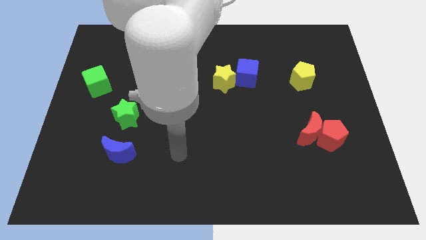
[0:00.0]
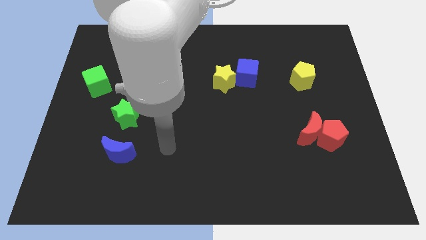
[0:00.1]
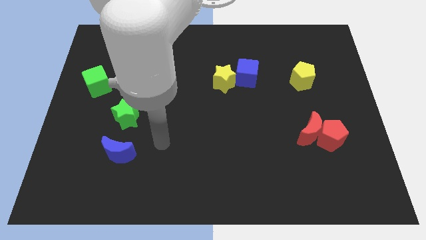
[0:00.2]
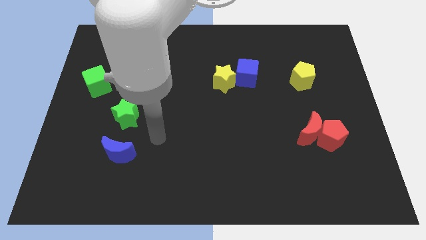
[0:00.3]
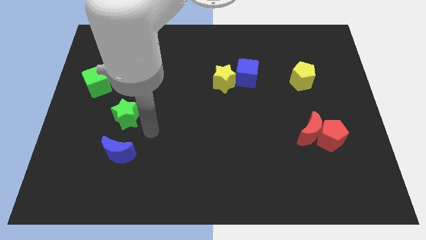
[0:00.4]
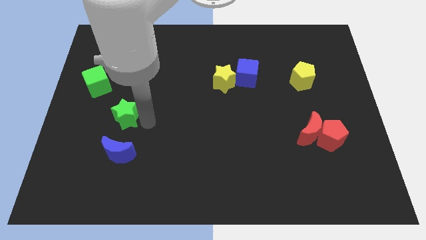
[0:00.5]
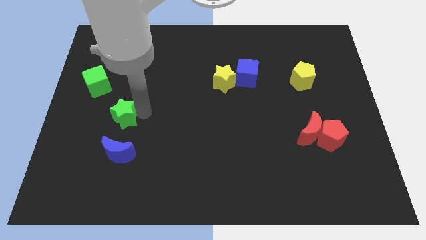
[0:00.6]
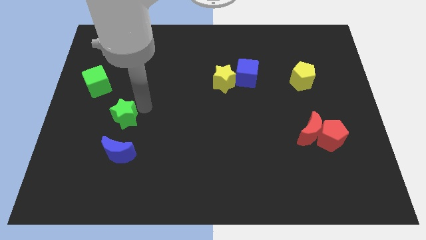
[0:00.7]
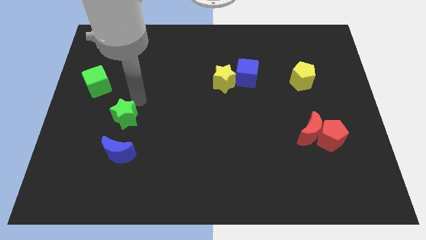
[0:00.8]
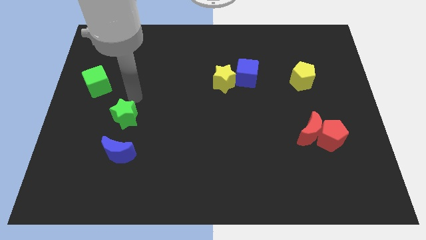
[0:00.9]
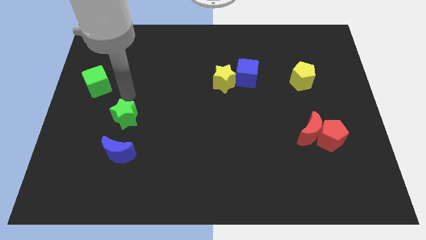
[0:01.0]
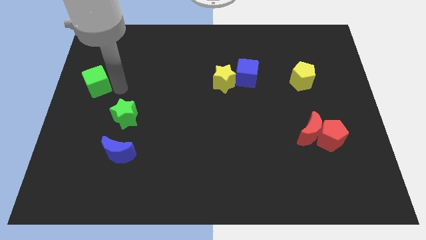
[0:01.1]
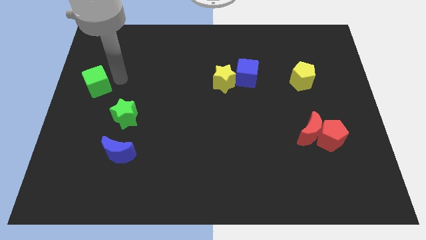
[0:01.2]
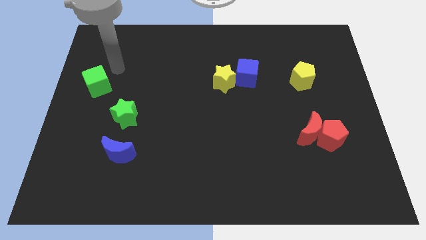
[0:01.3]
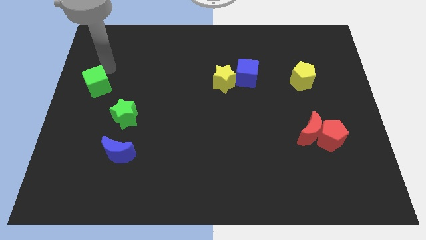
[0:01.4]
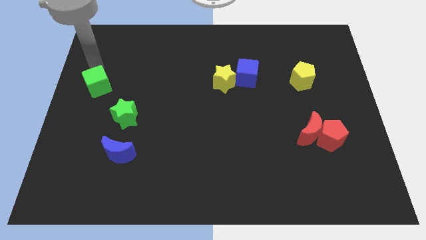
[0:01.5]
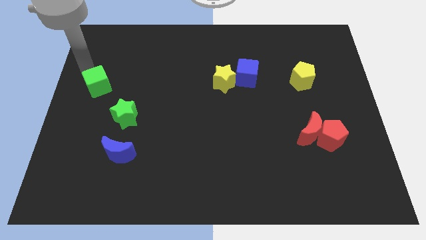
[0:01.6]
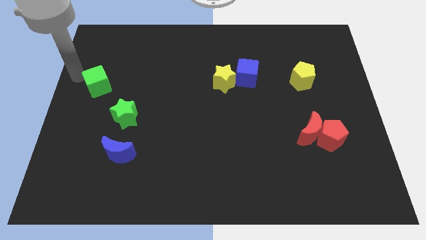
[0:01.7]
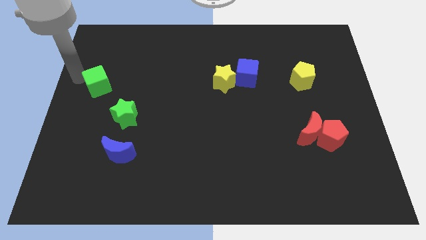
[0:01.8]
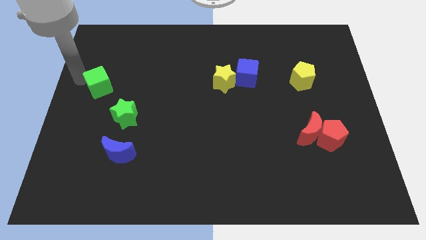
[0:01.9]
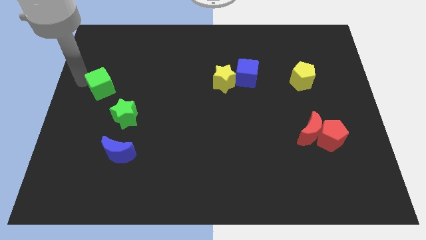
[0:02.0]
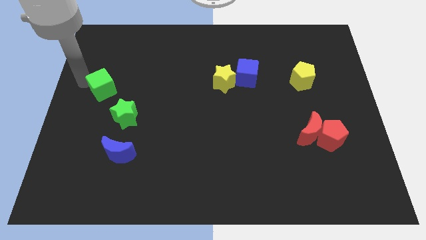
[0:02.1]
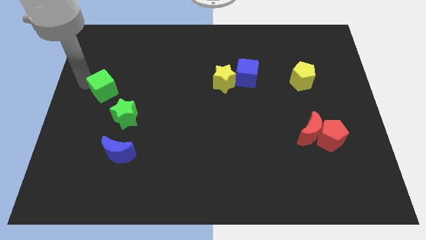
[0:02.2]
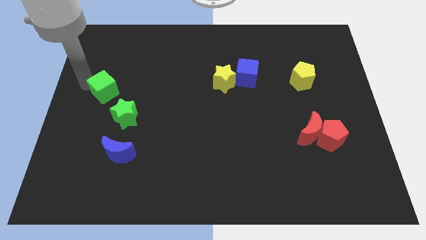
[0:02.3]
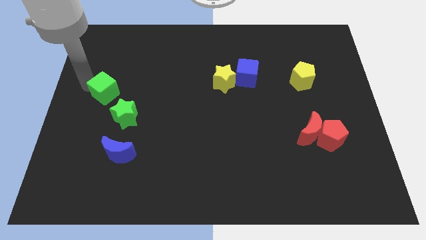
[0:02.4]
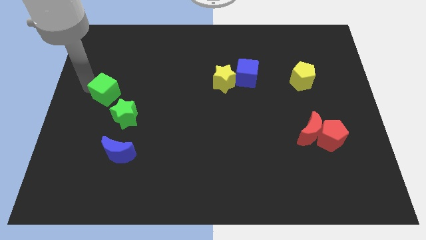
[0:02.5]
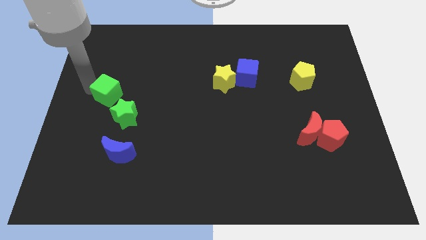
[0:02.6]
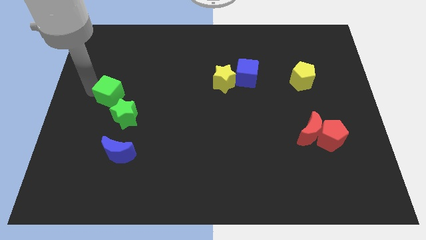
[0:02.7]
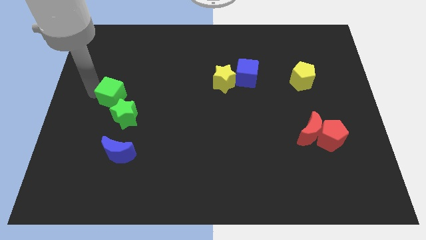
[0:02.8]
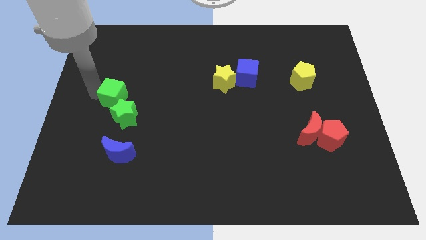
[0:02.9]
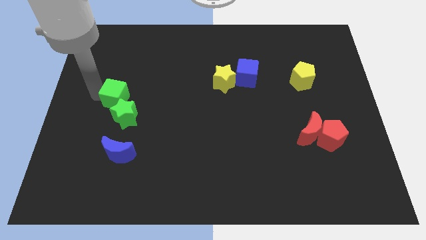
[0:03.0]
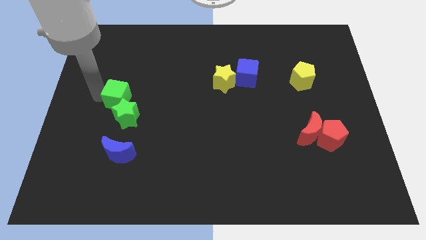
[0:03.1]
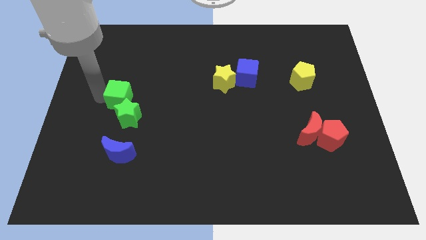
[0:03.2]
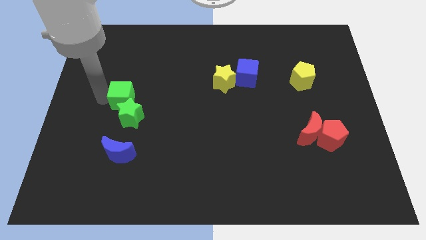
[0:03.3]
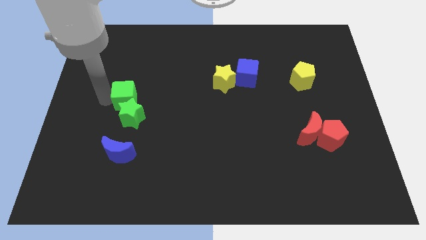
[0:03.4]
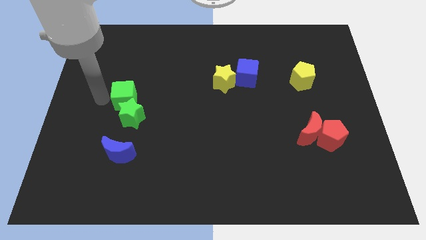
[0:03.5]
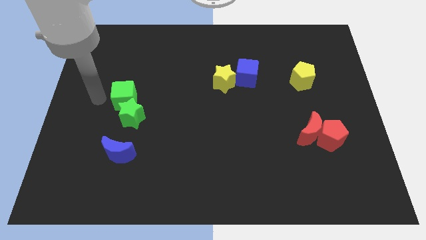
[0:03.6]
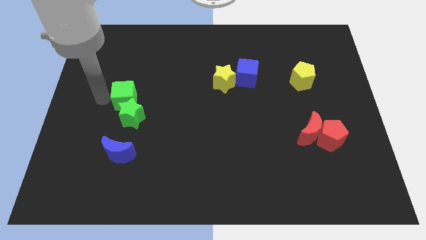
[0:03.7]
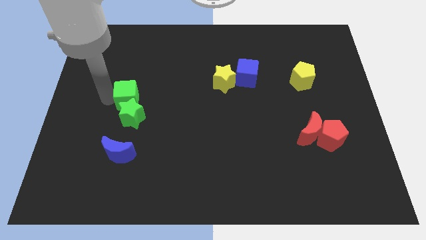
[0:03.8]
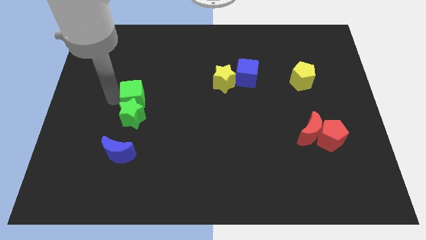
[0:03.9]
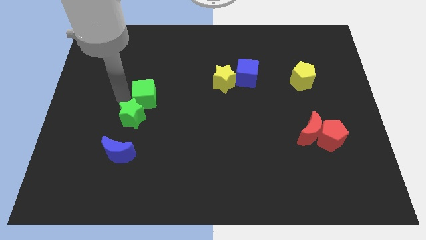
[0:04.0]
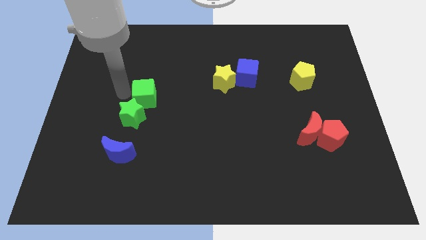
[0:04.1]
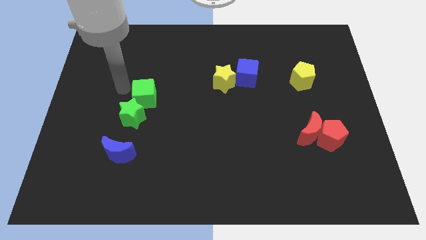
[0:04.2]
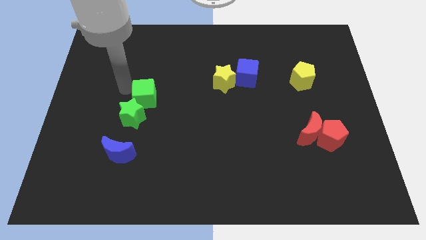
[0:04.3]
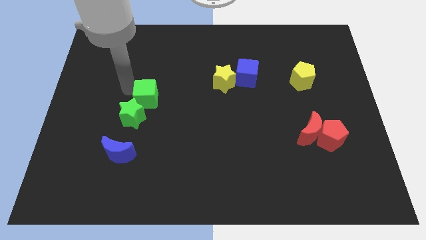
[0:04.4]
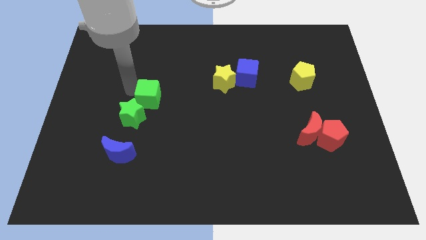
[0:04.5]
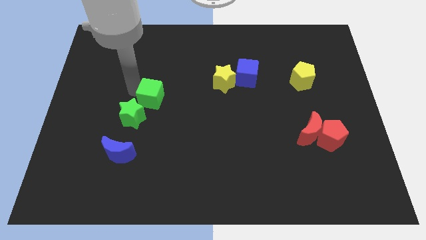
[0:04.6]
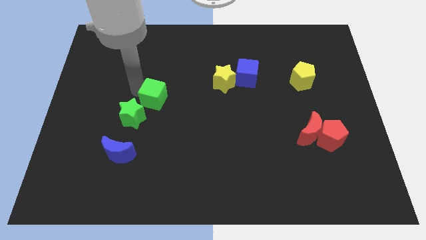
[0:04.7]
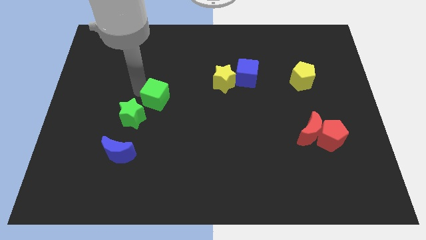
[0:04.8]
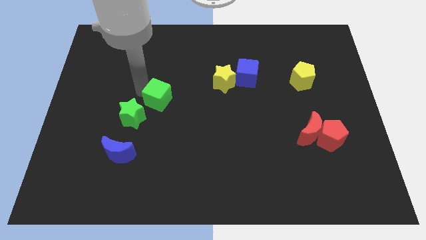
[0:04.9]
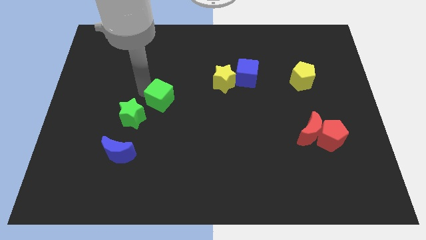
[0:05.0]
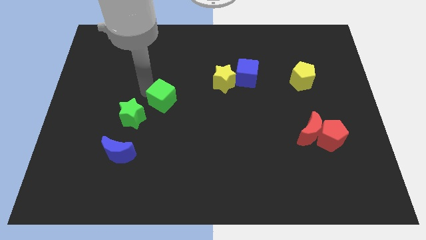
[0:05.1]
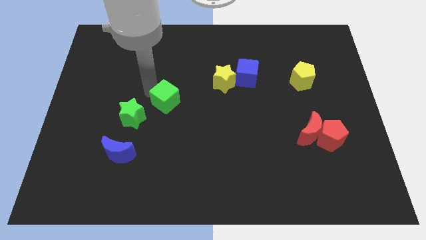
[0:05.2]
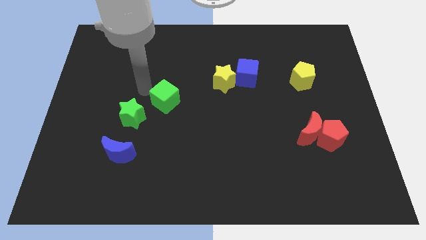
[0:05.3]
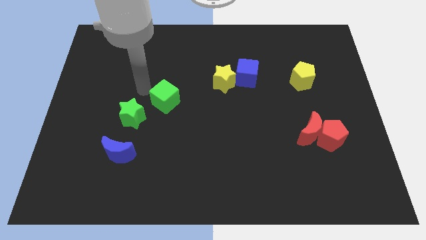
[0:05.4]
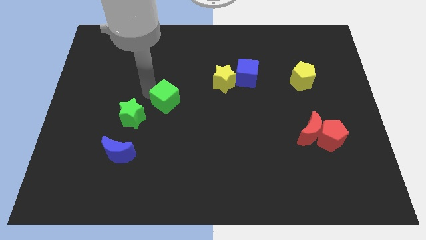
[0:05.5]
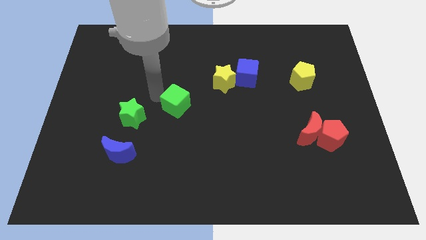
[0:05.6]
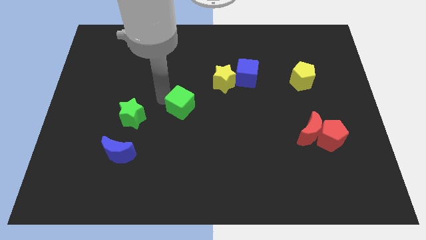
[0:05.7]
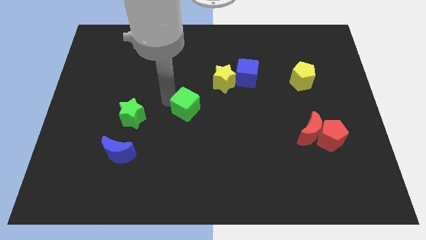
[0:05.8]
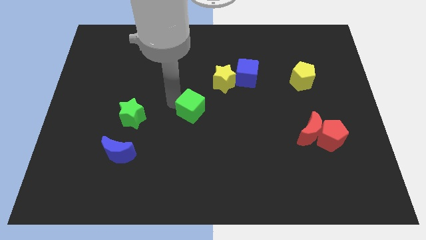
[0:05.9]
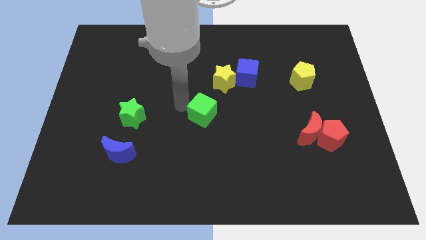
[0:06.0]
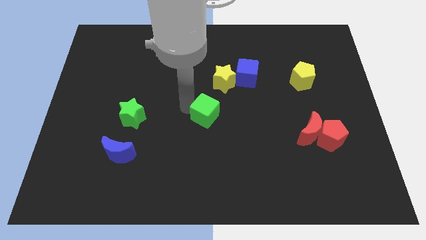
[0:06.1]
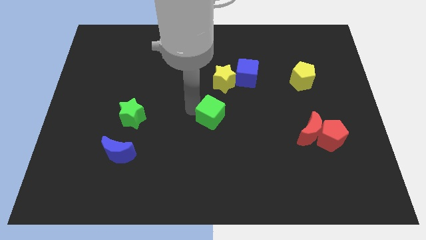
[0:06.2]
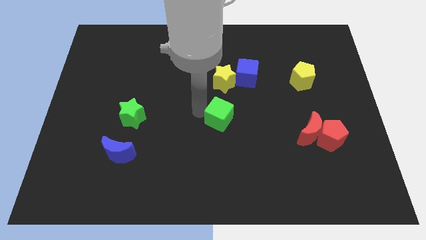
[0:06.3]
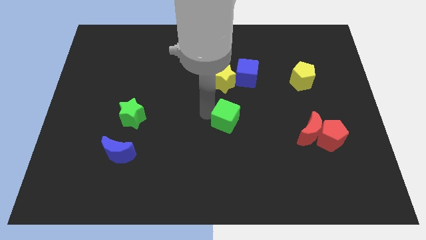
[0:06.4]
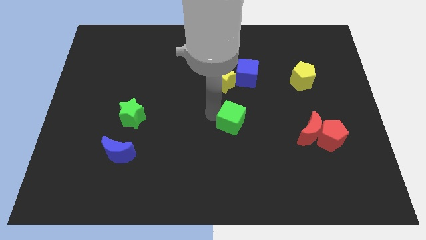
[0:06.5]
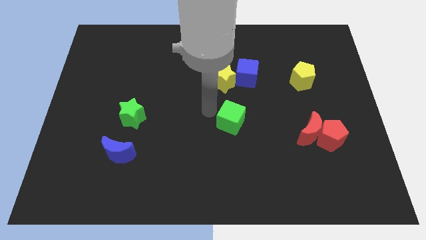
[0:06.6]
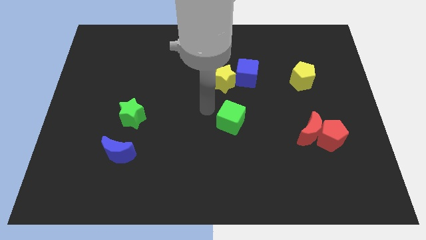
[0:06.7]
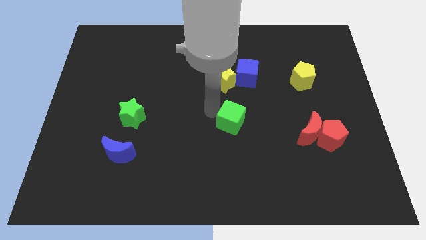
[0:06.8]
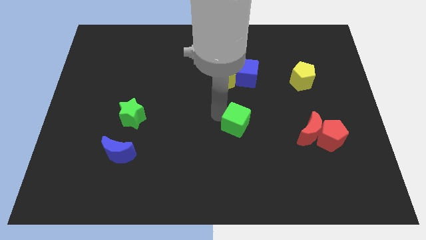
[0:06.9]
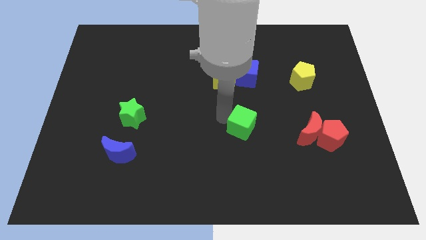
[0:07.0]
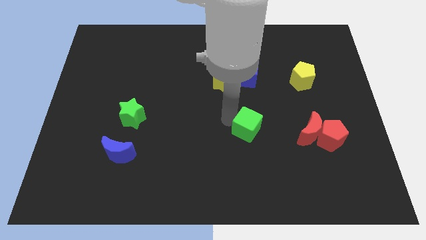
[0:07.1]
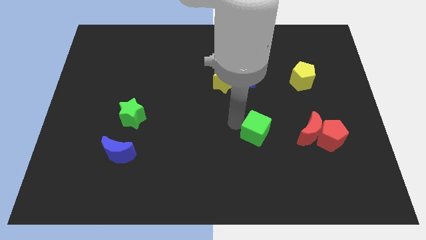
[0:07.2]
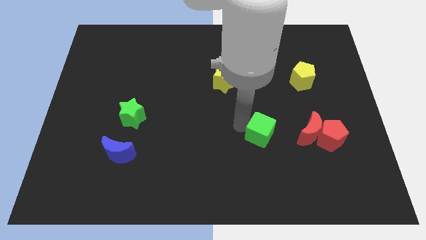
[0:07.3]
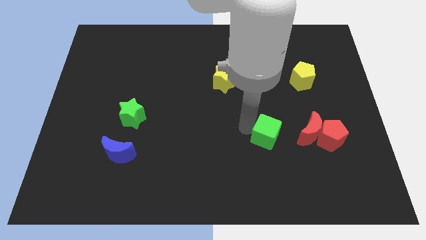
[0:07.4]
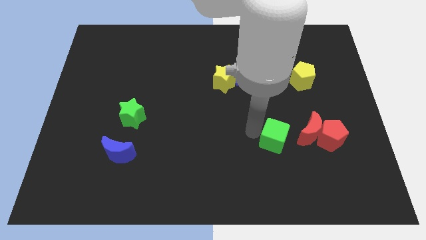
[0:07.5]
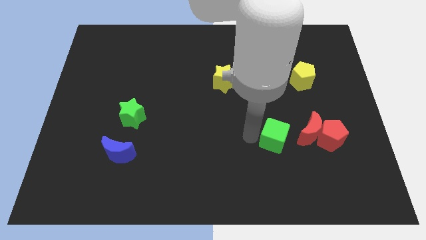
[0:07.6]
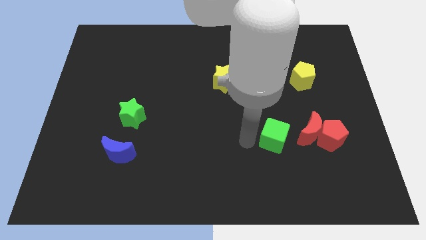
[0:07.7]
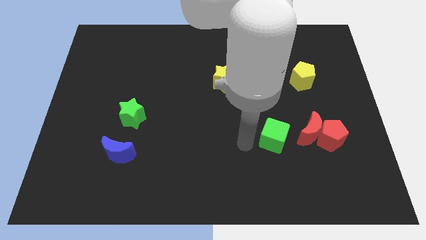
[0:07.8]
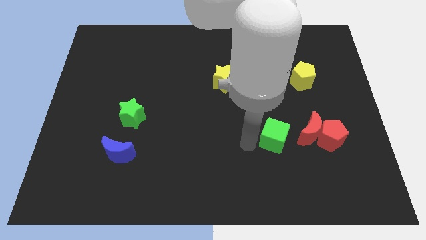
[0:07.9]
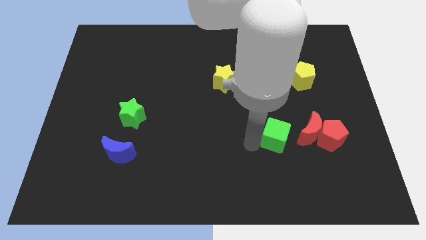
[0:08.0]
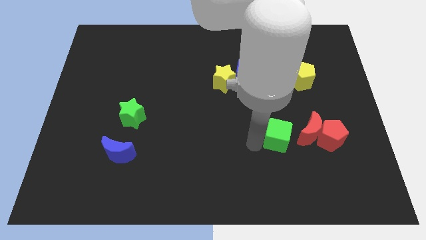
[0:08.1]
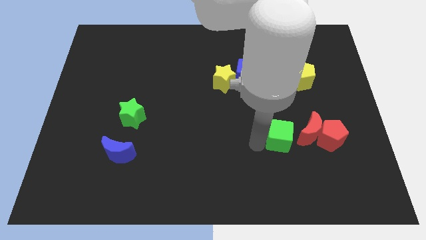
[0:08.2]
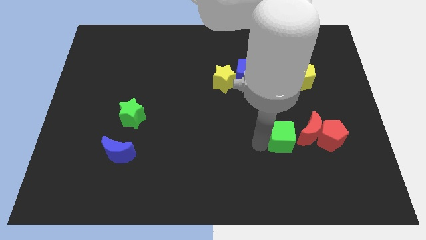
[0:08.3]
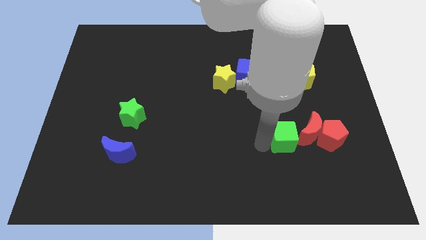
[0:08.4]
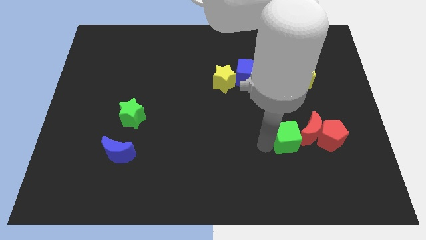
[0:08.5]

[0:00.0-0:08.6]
move the green cube towards the red moon
